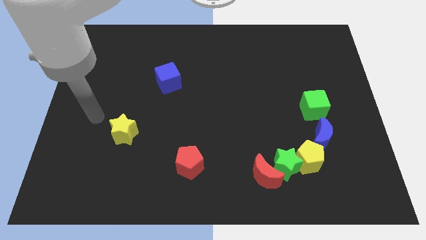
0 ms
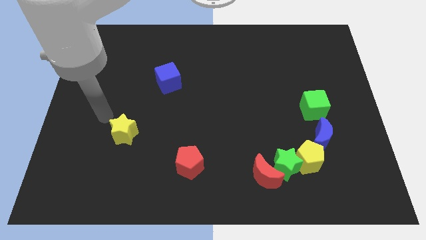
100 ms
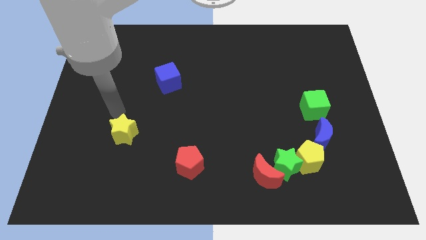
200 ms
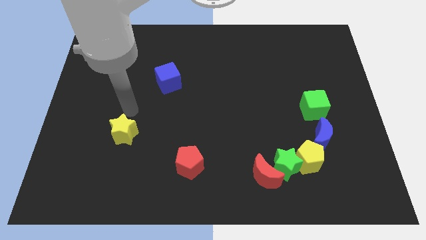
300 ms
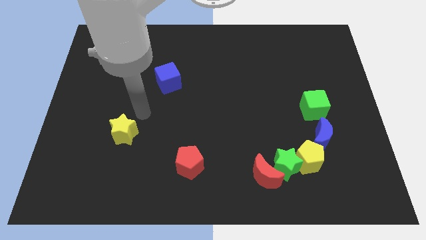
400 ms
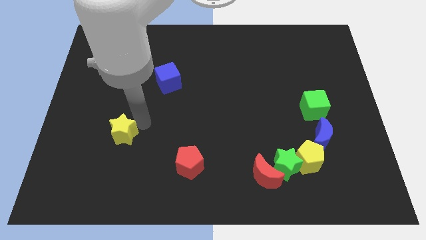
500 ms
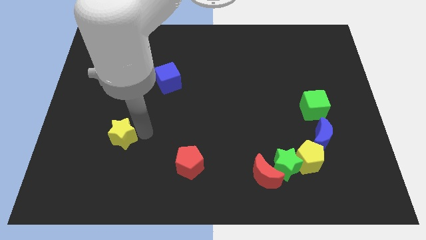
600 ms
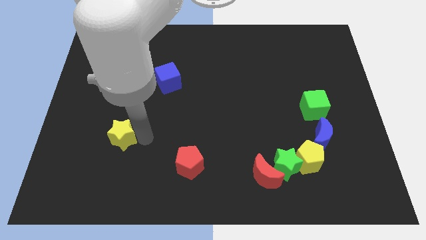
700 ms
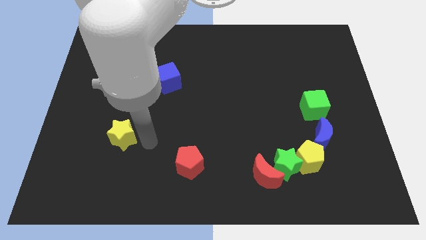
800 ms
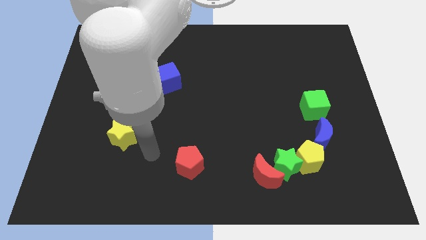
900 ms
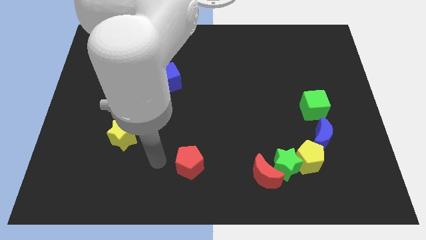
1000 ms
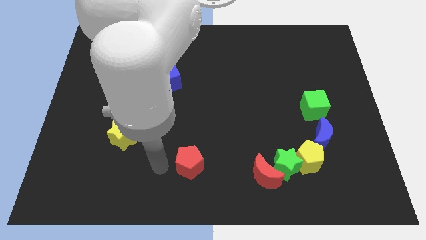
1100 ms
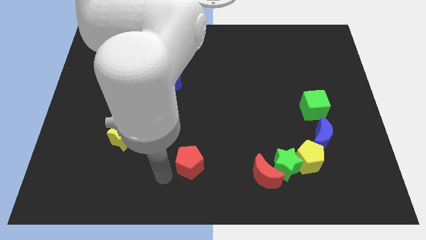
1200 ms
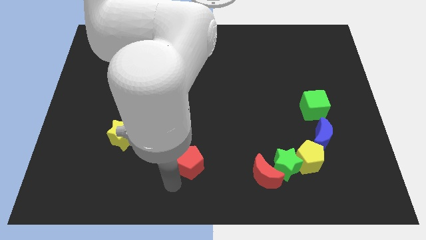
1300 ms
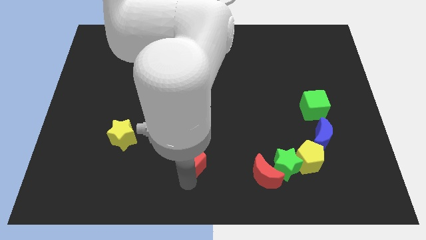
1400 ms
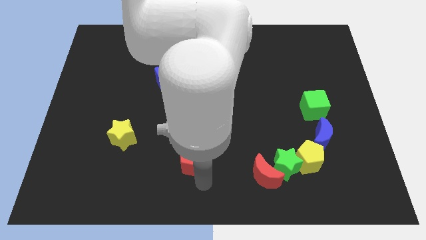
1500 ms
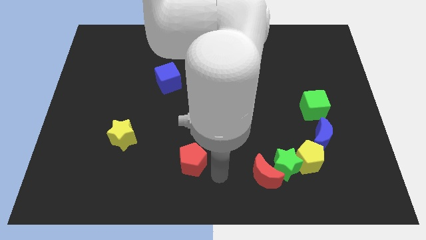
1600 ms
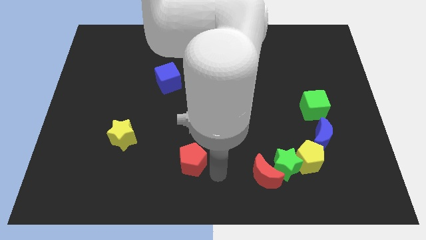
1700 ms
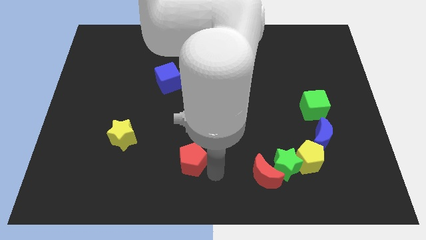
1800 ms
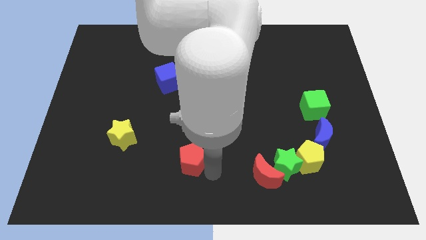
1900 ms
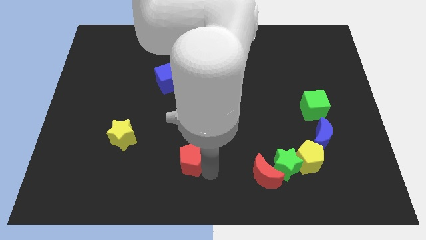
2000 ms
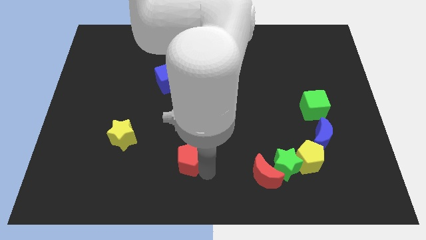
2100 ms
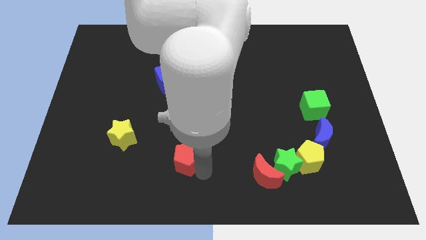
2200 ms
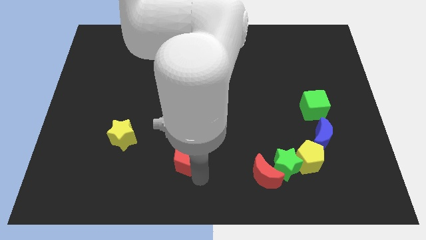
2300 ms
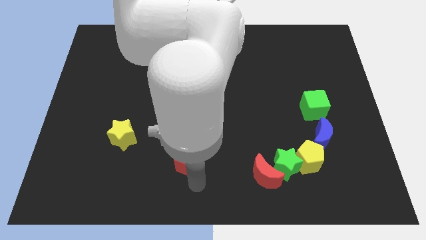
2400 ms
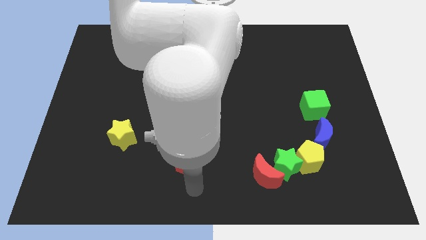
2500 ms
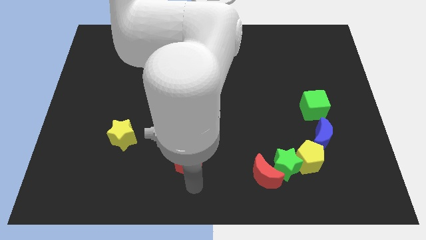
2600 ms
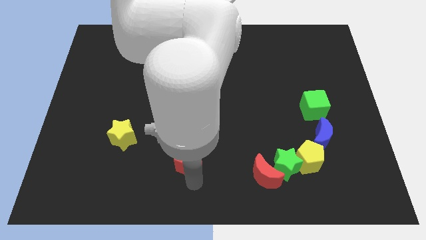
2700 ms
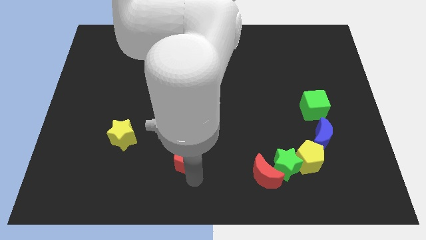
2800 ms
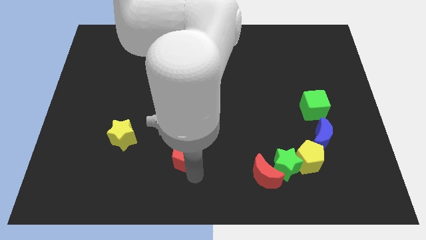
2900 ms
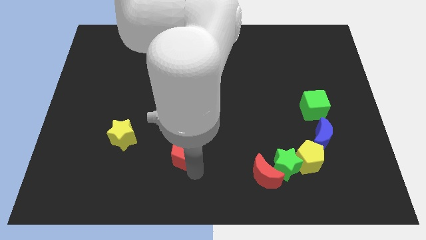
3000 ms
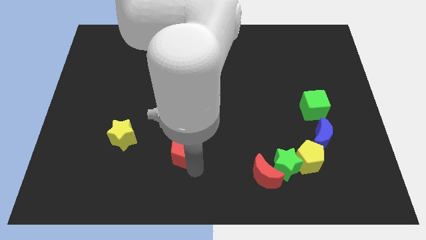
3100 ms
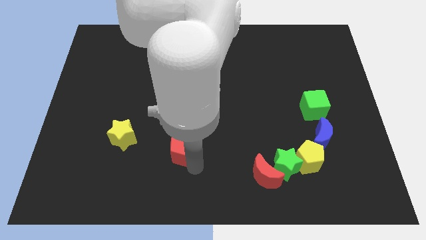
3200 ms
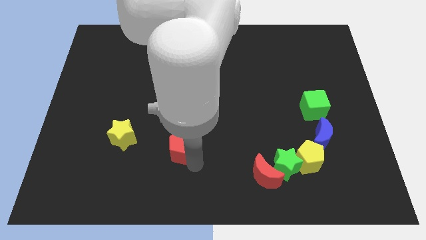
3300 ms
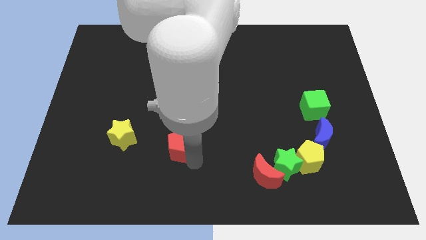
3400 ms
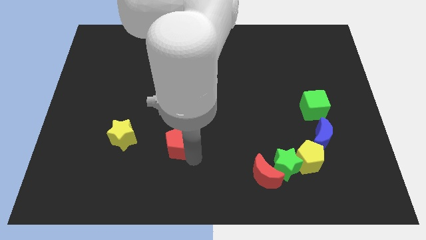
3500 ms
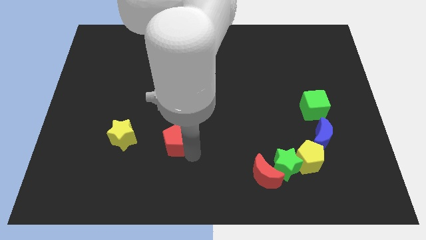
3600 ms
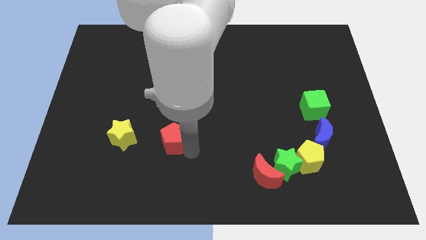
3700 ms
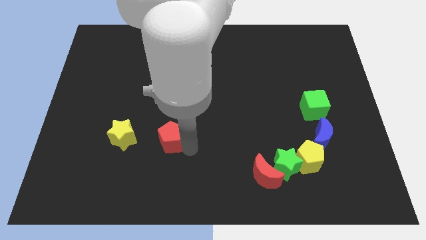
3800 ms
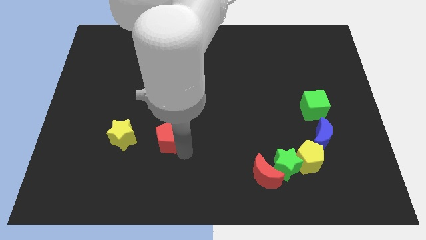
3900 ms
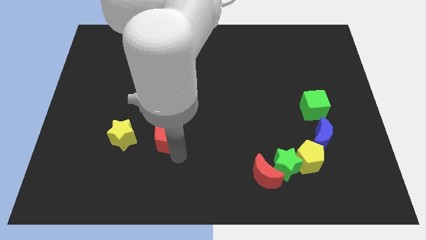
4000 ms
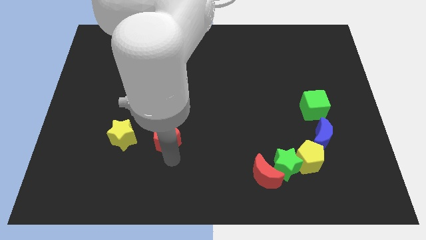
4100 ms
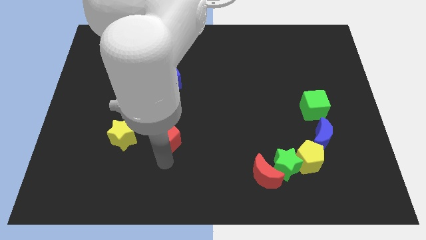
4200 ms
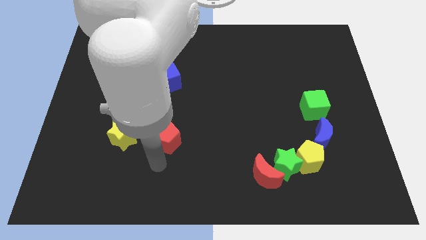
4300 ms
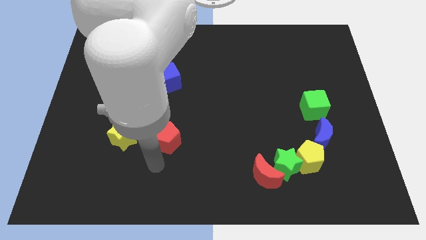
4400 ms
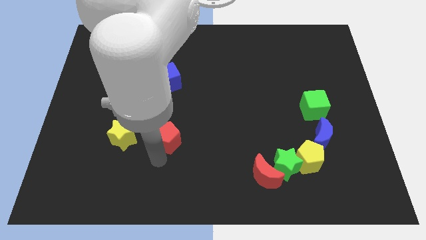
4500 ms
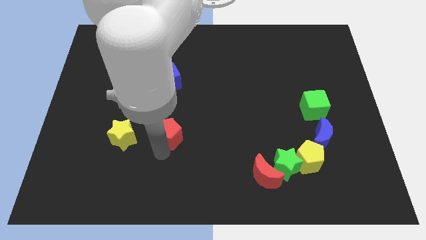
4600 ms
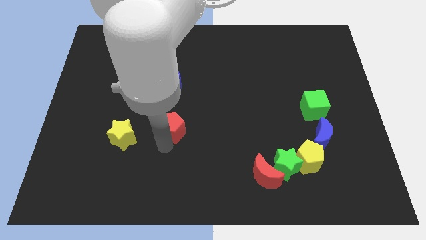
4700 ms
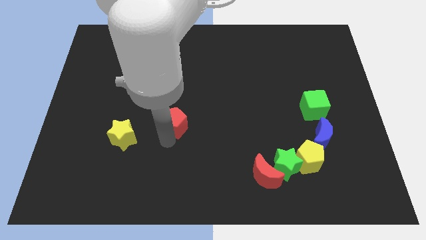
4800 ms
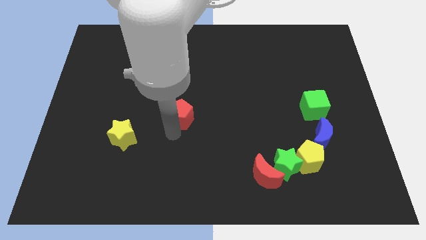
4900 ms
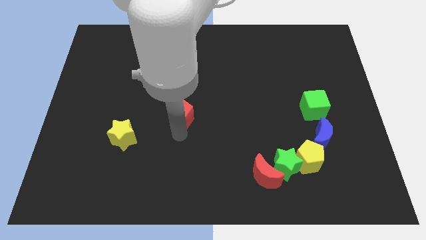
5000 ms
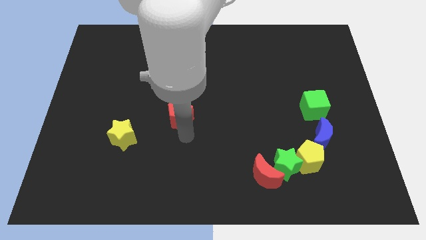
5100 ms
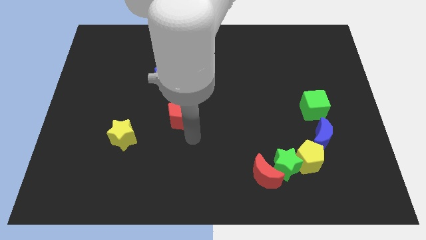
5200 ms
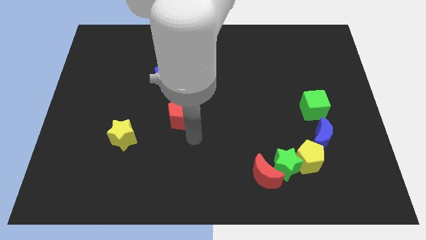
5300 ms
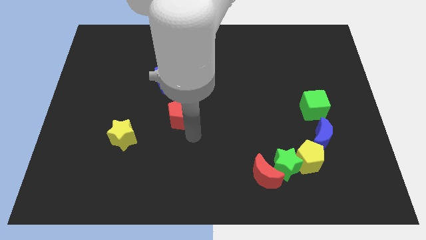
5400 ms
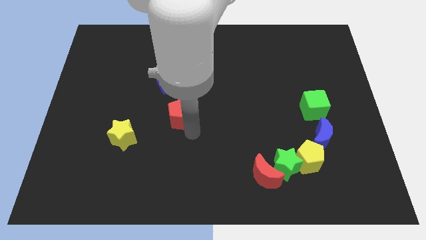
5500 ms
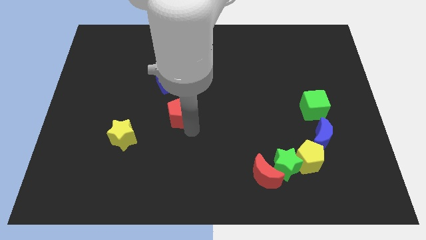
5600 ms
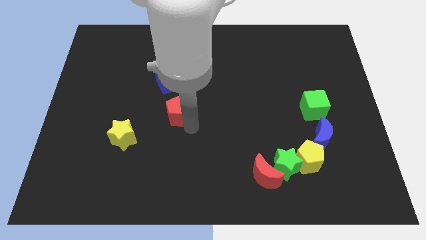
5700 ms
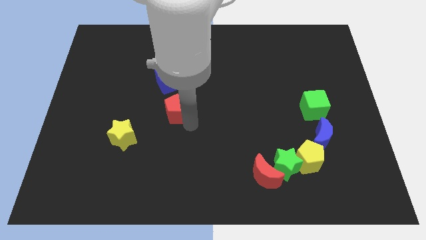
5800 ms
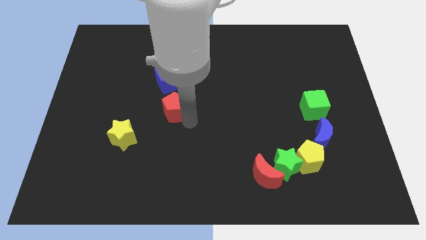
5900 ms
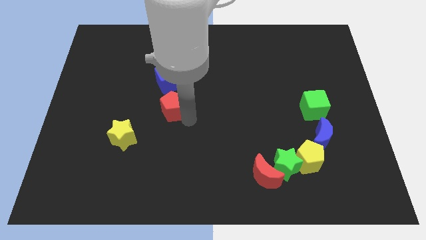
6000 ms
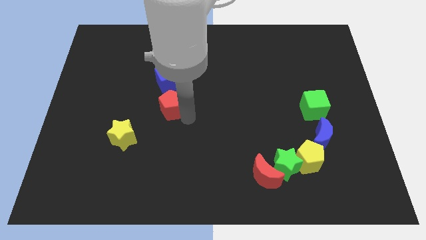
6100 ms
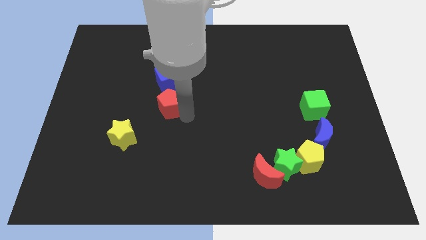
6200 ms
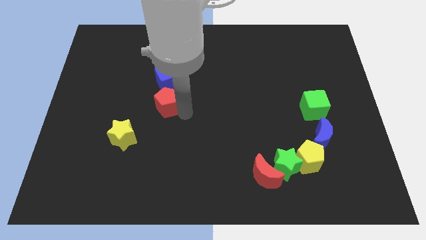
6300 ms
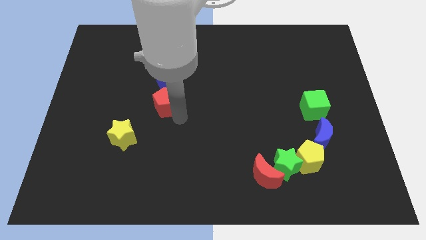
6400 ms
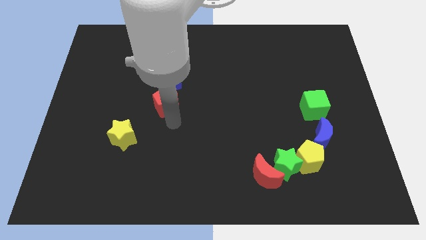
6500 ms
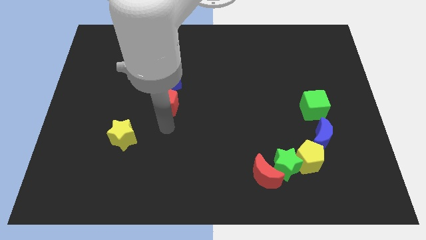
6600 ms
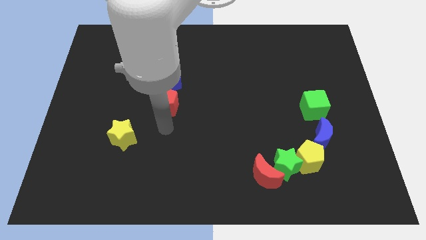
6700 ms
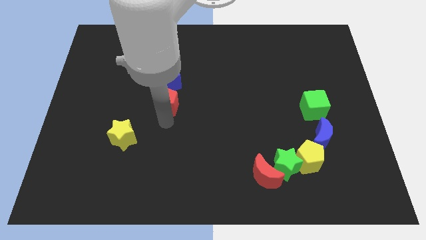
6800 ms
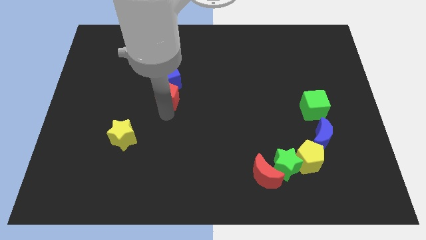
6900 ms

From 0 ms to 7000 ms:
push the red pentagon to the blue cube

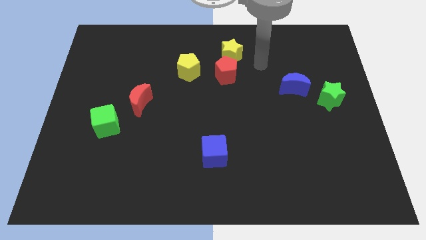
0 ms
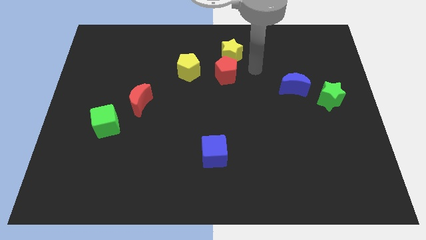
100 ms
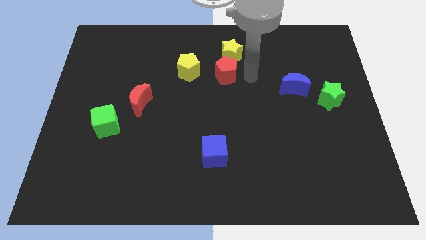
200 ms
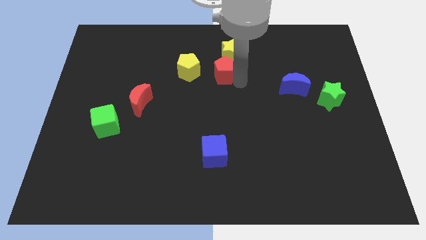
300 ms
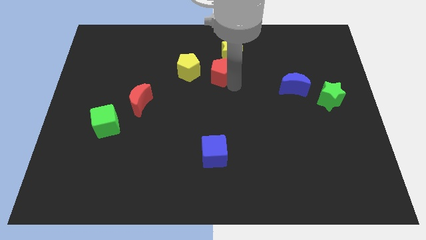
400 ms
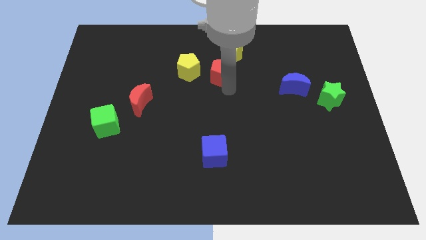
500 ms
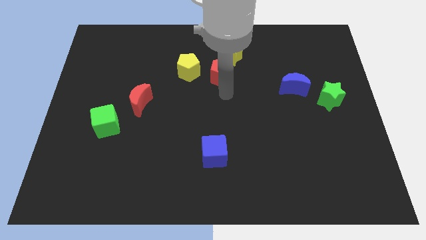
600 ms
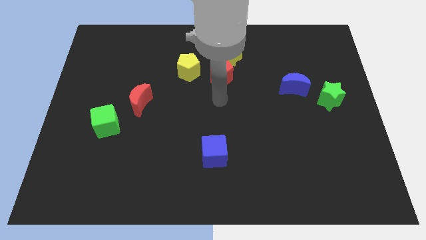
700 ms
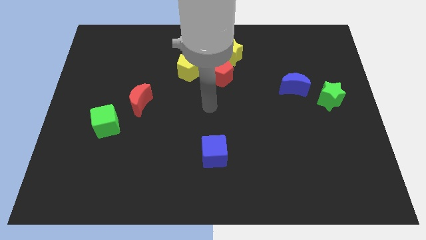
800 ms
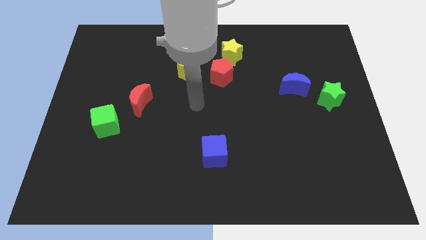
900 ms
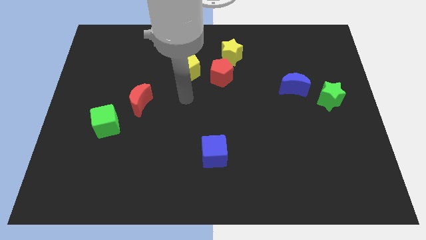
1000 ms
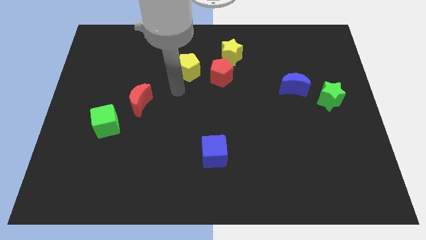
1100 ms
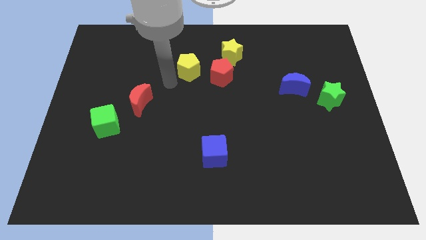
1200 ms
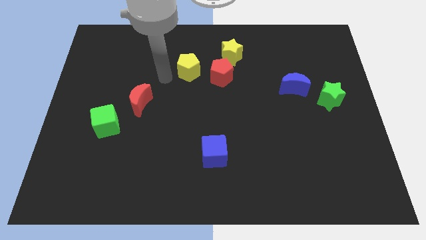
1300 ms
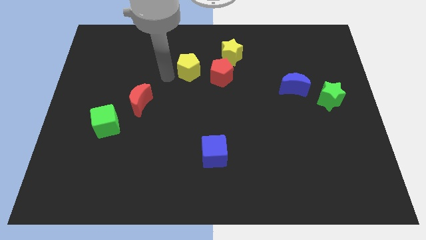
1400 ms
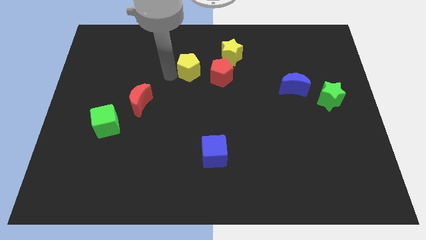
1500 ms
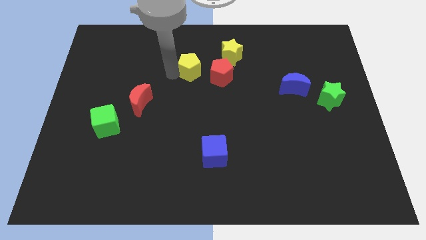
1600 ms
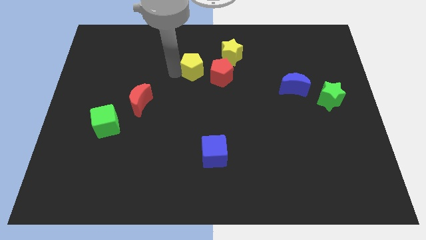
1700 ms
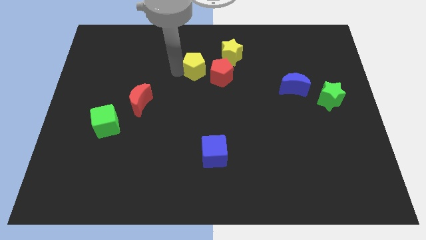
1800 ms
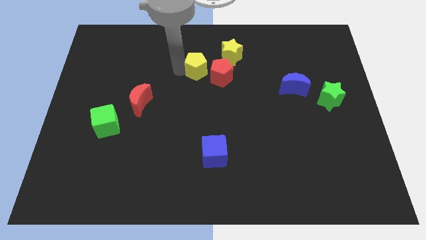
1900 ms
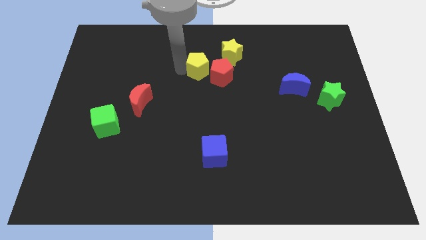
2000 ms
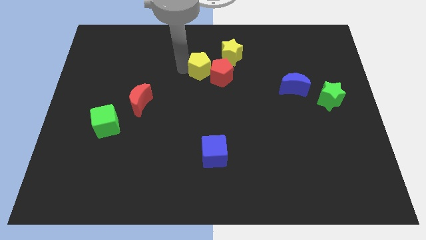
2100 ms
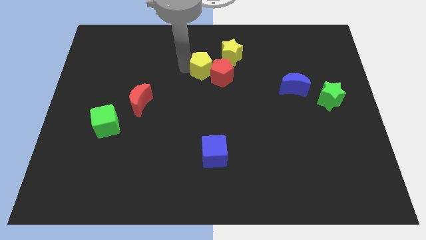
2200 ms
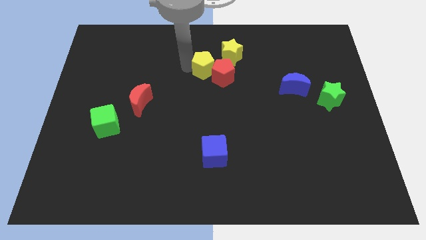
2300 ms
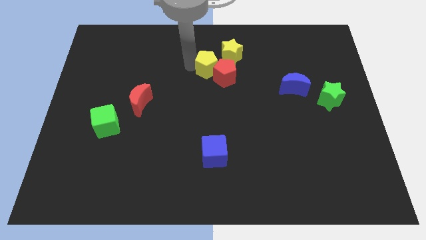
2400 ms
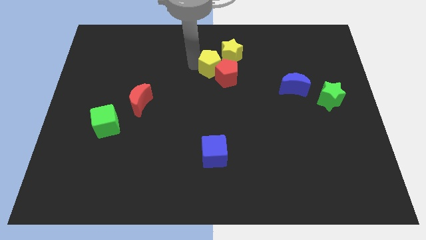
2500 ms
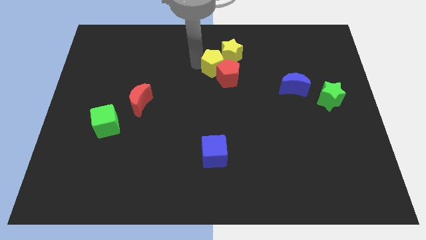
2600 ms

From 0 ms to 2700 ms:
push the yellow pentagon next to the yellow star
